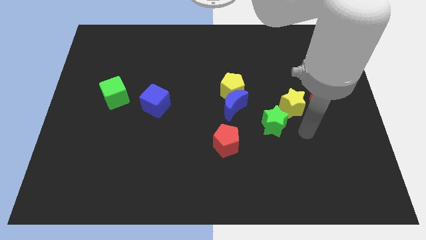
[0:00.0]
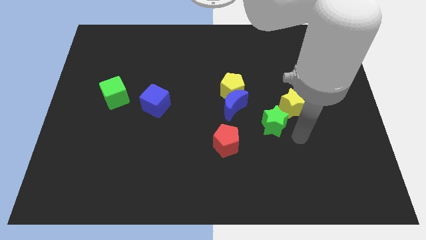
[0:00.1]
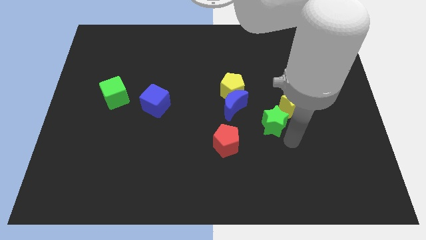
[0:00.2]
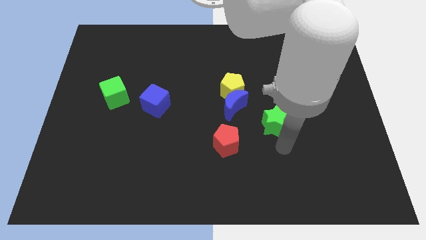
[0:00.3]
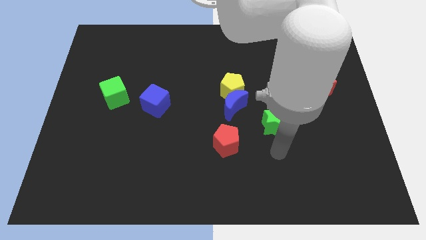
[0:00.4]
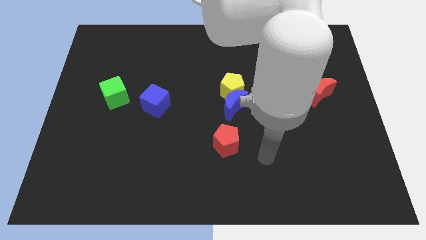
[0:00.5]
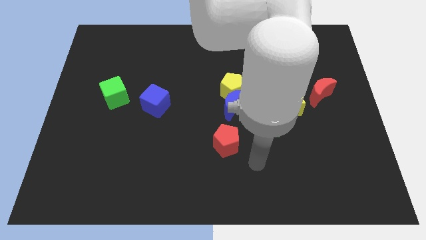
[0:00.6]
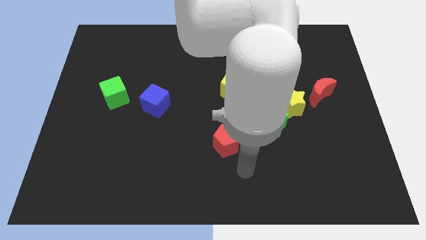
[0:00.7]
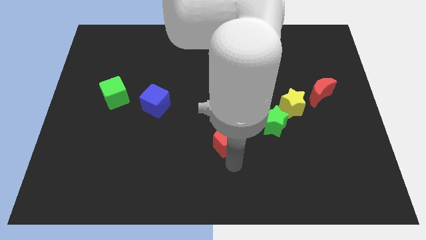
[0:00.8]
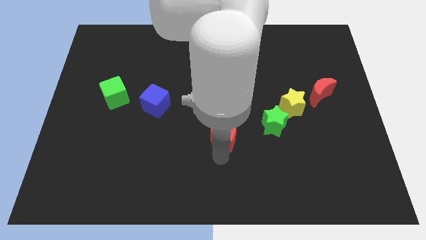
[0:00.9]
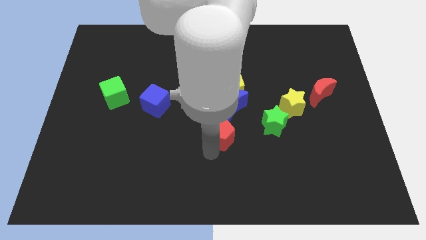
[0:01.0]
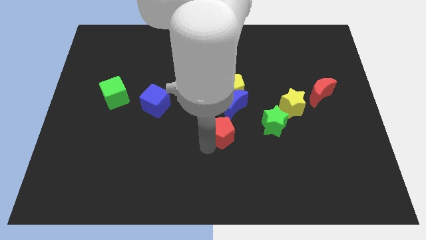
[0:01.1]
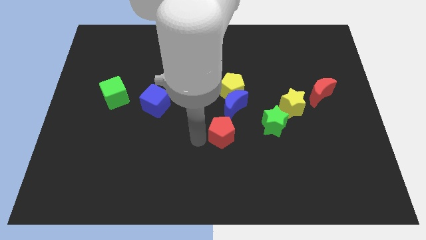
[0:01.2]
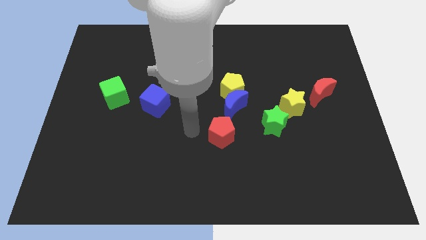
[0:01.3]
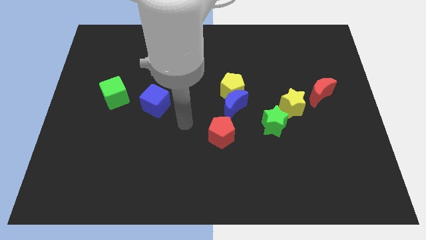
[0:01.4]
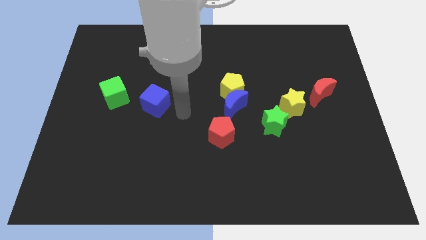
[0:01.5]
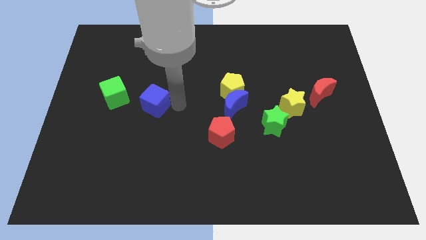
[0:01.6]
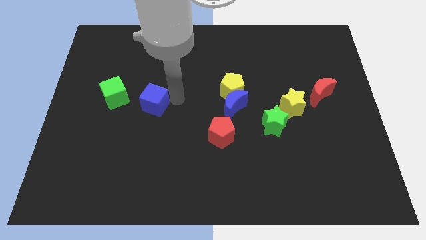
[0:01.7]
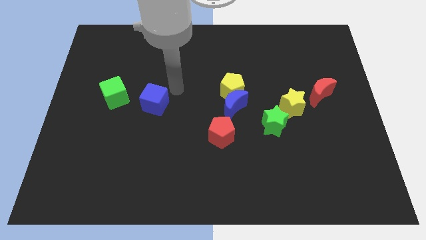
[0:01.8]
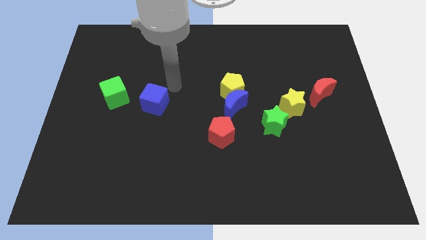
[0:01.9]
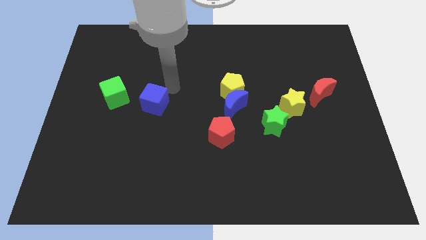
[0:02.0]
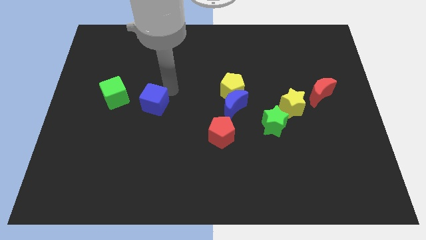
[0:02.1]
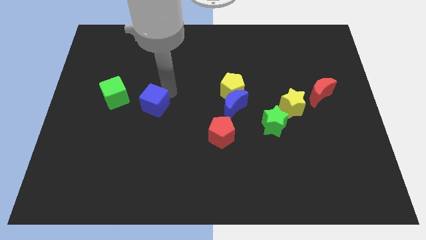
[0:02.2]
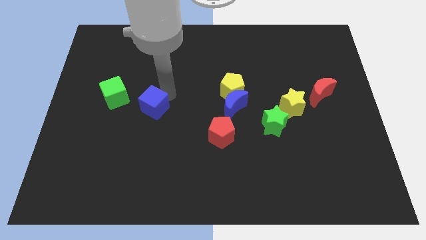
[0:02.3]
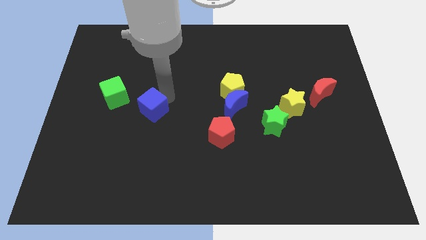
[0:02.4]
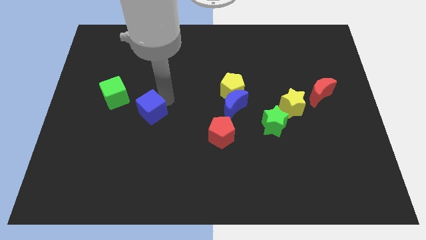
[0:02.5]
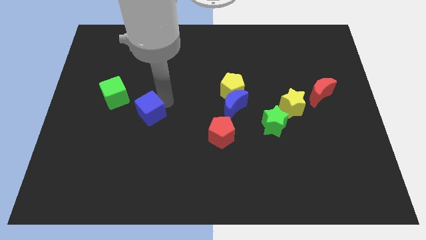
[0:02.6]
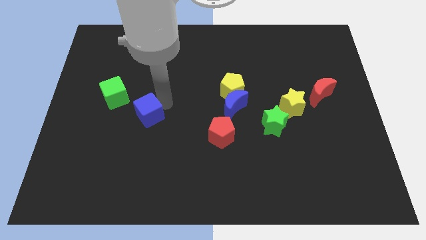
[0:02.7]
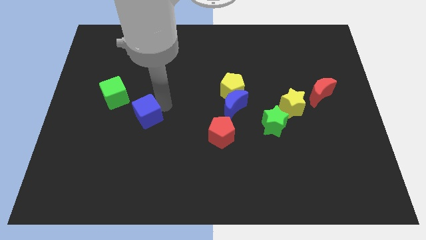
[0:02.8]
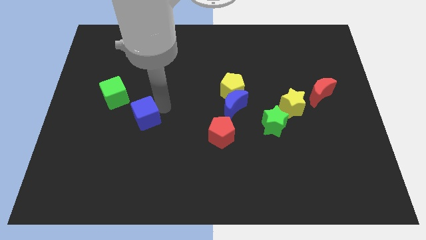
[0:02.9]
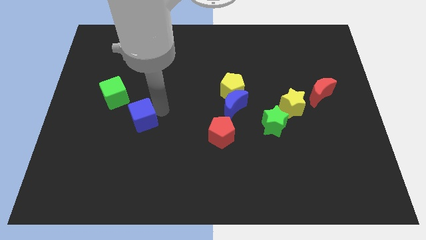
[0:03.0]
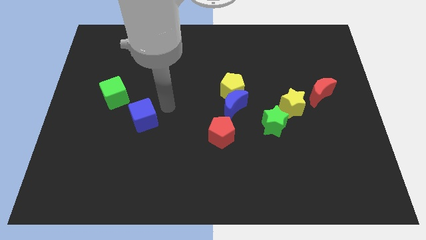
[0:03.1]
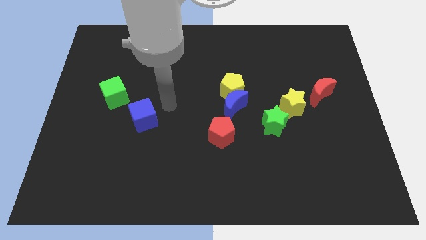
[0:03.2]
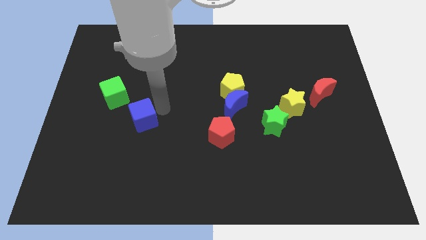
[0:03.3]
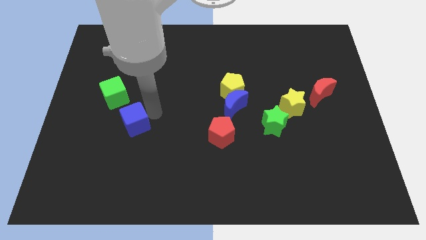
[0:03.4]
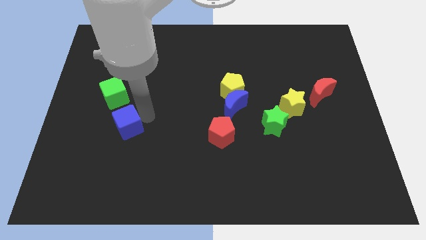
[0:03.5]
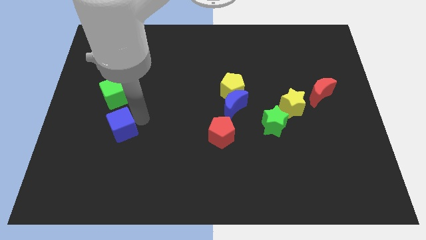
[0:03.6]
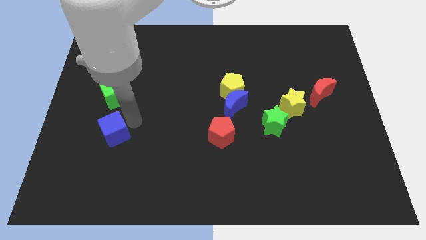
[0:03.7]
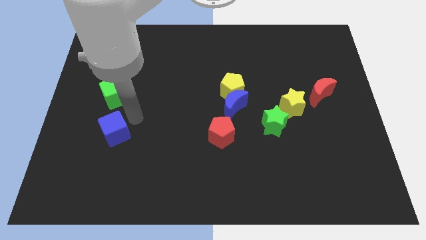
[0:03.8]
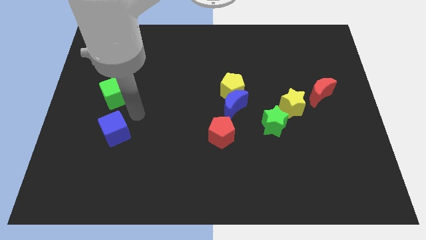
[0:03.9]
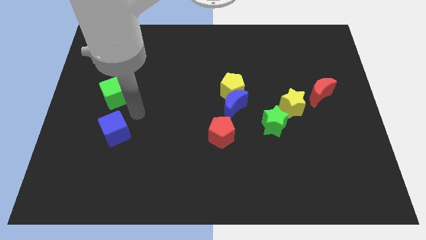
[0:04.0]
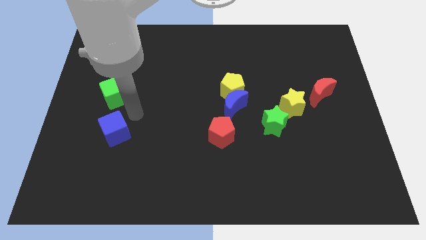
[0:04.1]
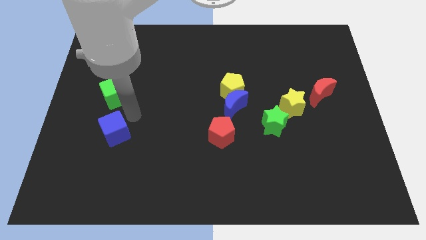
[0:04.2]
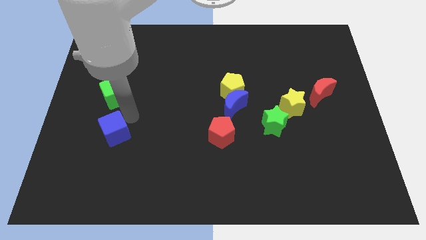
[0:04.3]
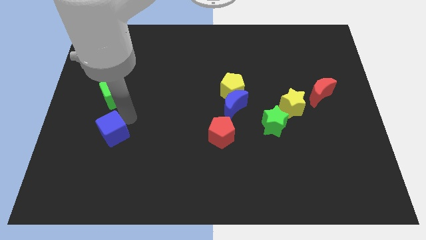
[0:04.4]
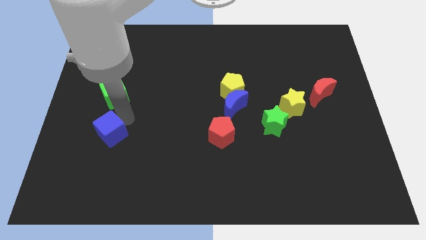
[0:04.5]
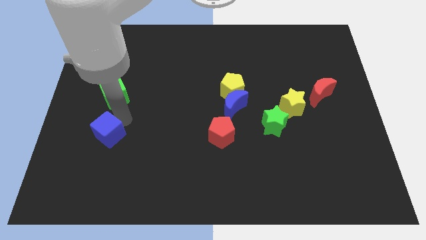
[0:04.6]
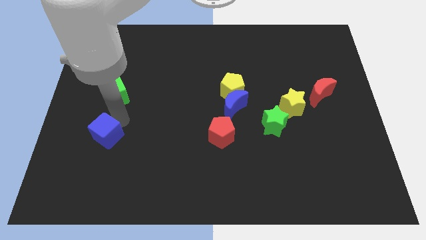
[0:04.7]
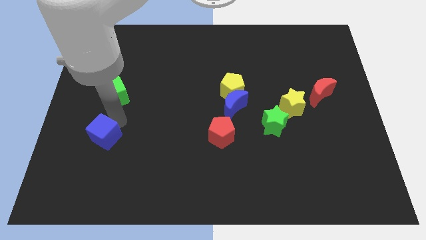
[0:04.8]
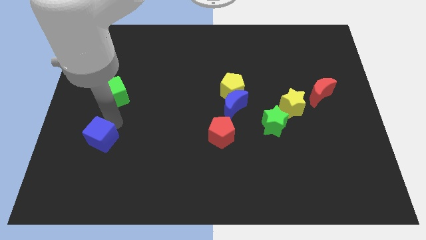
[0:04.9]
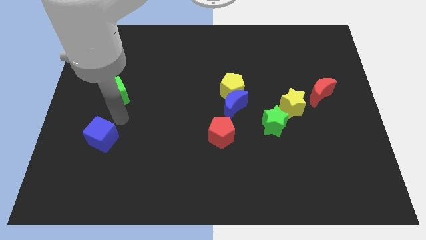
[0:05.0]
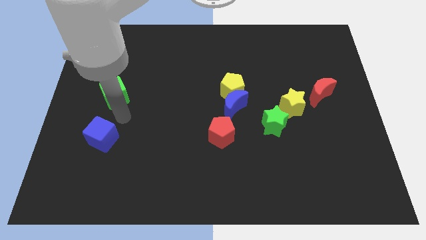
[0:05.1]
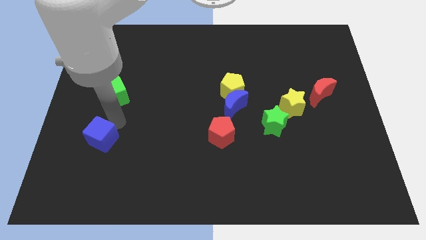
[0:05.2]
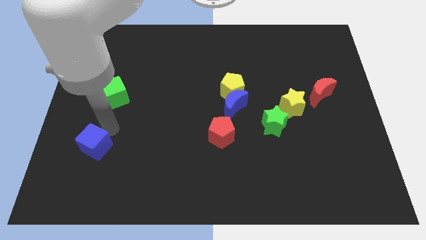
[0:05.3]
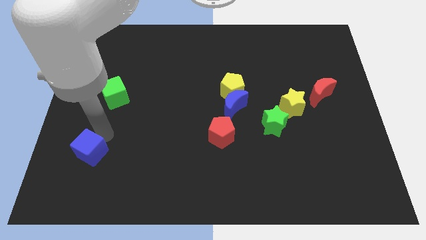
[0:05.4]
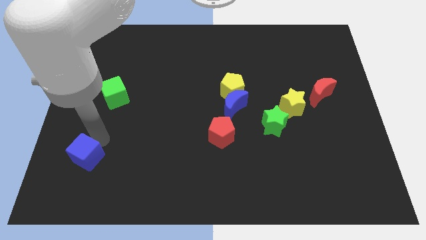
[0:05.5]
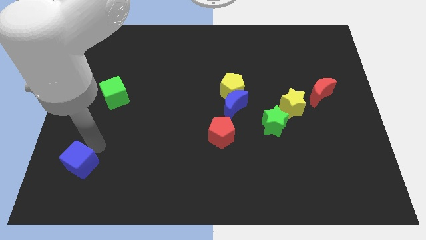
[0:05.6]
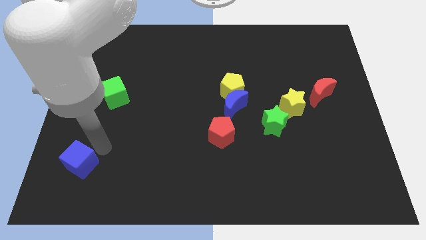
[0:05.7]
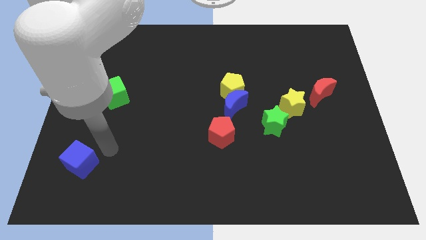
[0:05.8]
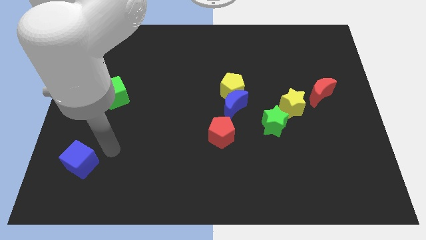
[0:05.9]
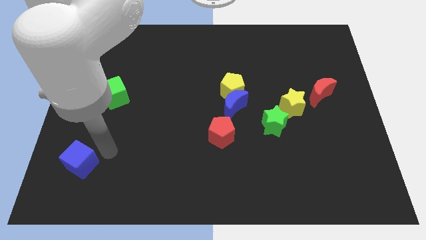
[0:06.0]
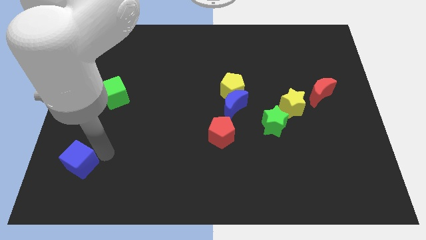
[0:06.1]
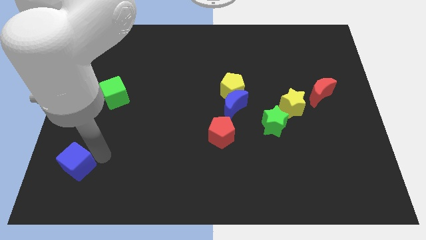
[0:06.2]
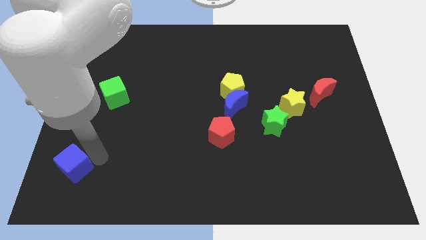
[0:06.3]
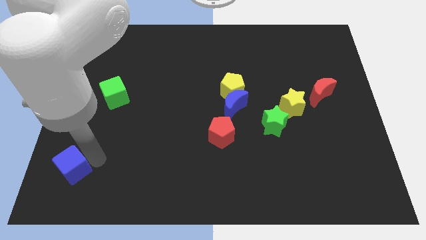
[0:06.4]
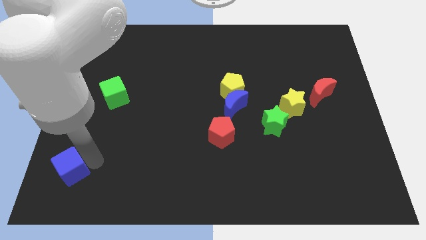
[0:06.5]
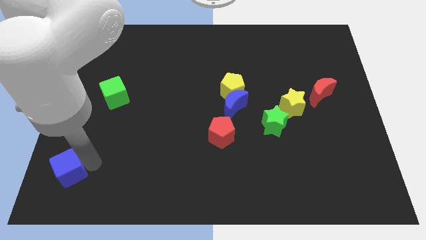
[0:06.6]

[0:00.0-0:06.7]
put the blue cube to the bottom left corner
